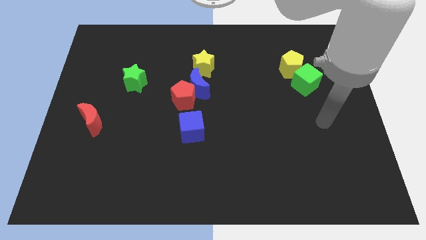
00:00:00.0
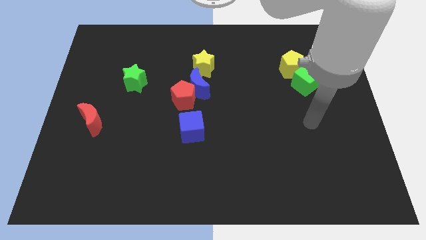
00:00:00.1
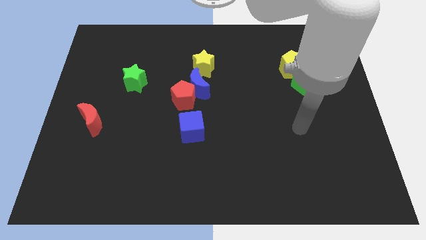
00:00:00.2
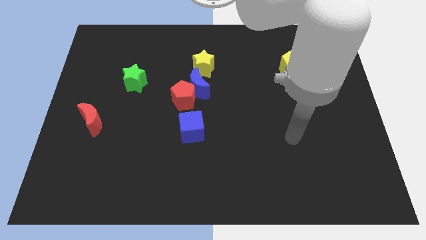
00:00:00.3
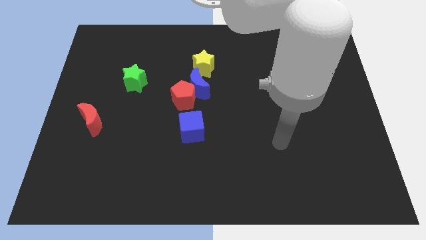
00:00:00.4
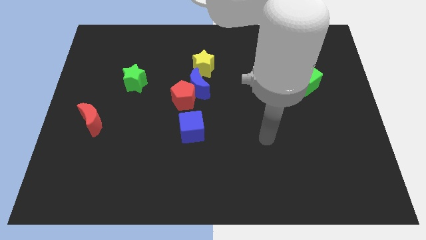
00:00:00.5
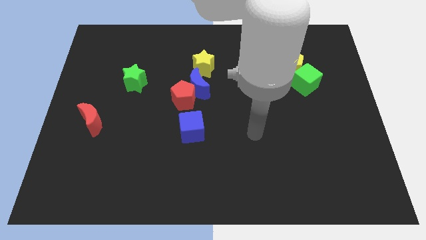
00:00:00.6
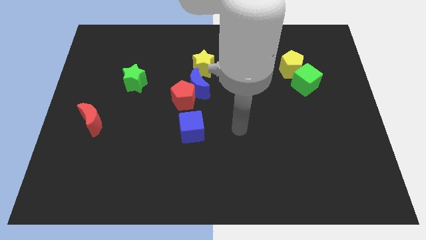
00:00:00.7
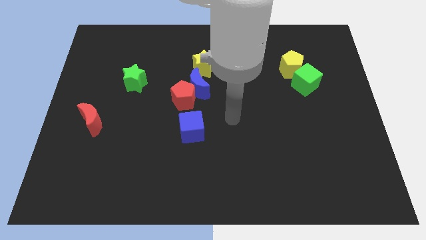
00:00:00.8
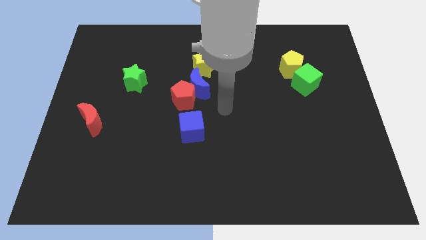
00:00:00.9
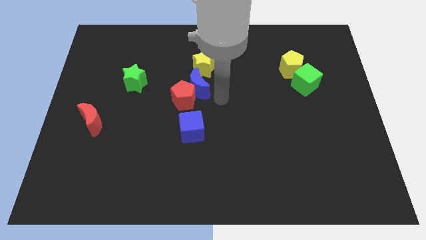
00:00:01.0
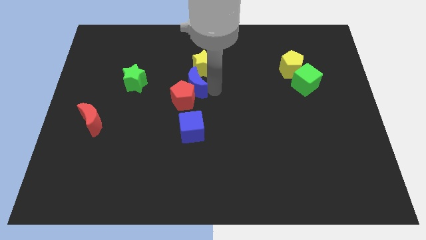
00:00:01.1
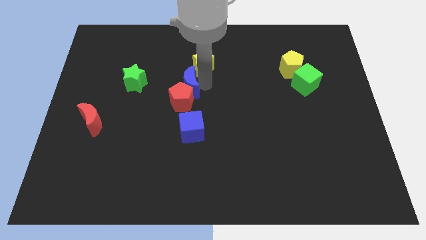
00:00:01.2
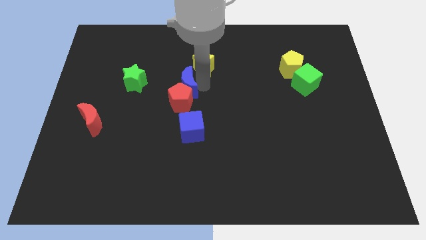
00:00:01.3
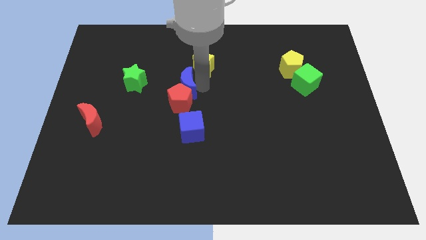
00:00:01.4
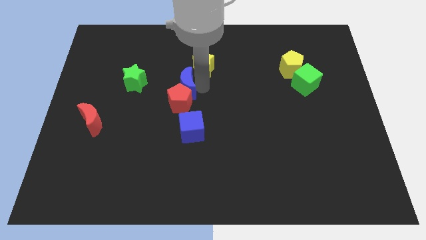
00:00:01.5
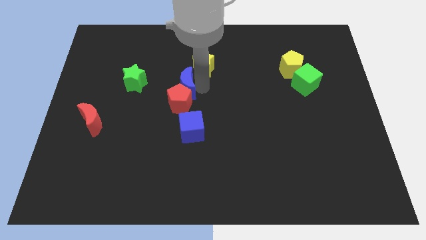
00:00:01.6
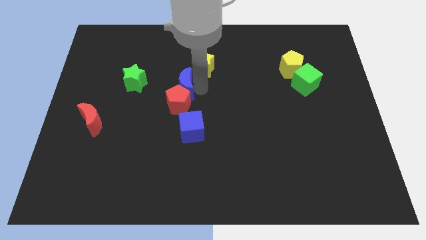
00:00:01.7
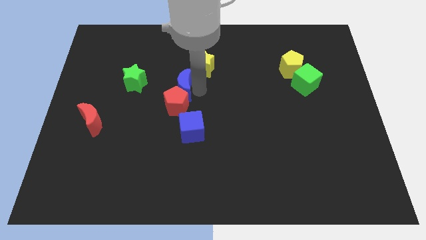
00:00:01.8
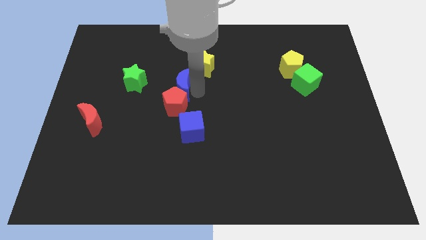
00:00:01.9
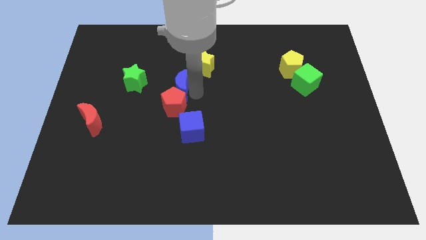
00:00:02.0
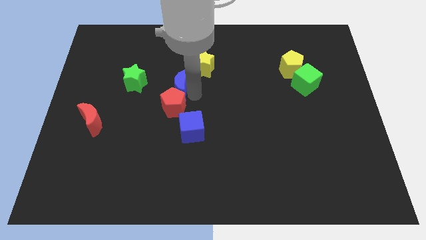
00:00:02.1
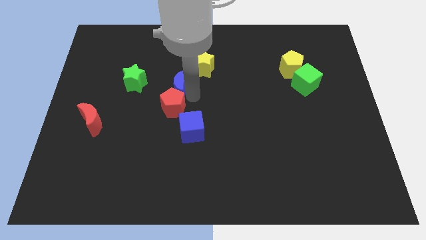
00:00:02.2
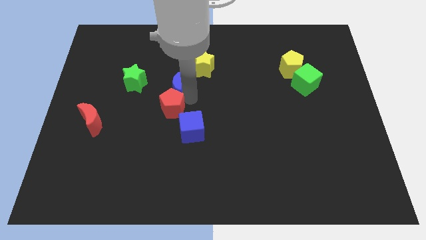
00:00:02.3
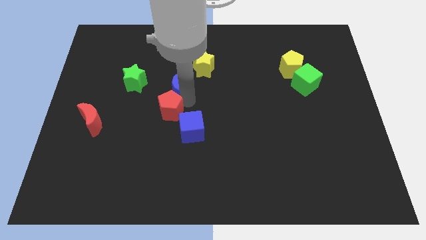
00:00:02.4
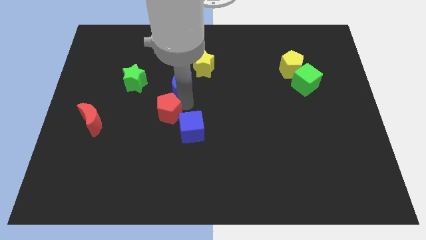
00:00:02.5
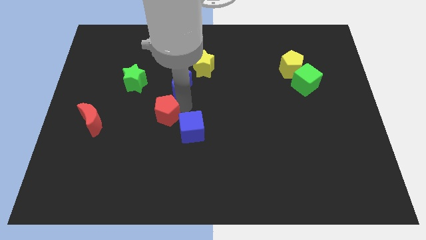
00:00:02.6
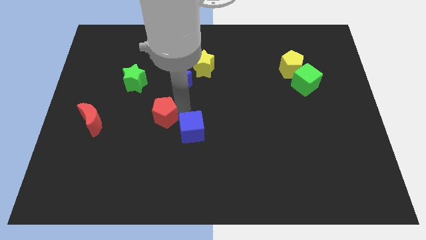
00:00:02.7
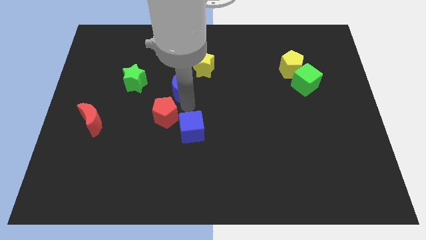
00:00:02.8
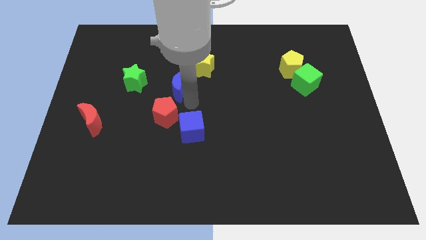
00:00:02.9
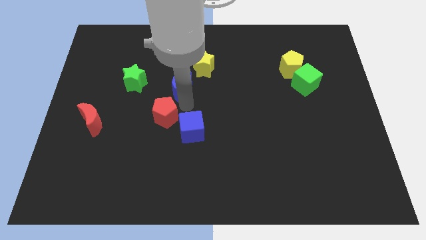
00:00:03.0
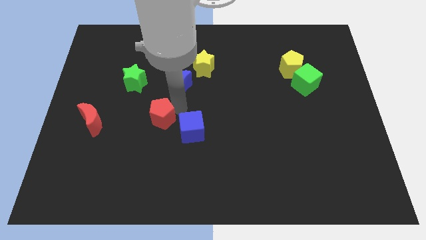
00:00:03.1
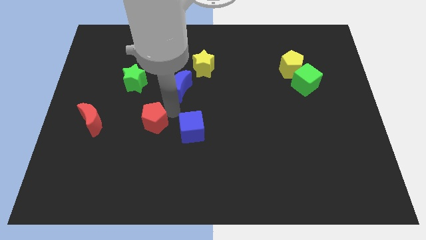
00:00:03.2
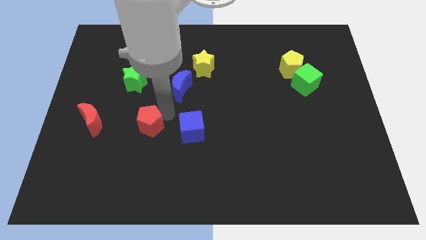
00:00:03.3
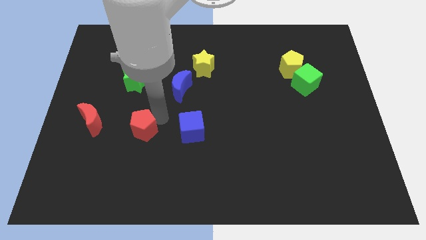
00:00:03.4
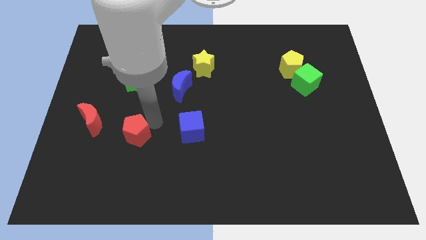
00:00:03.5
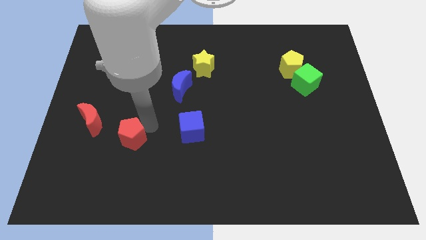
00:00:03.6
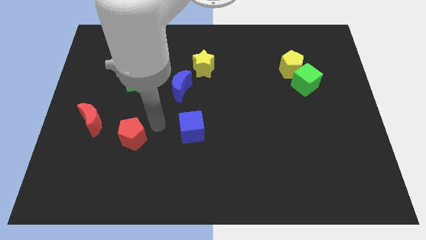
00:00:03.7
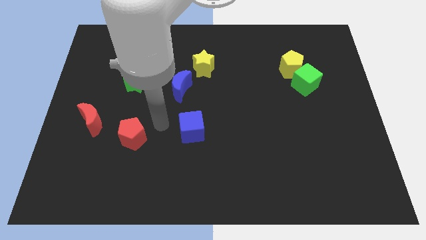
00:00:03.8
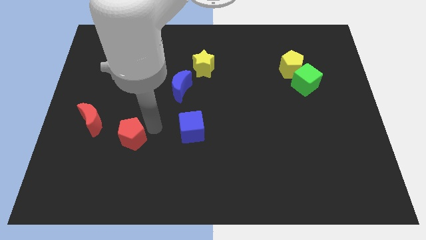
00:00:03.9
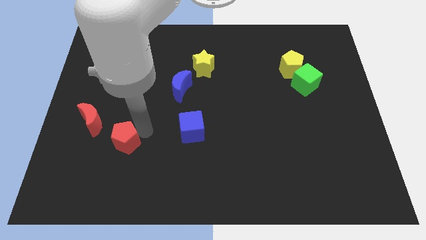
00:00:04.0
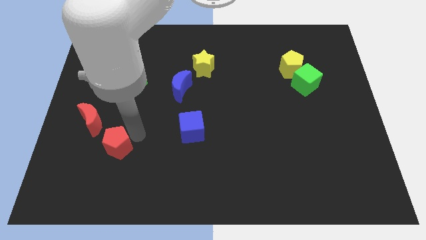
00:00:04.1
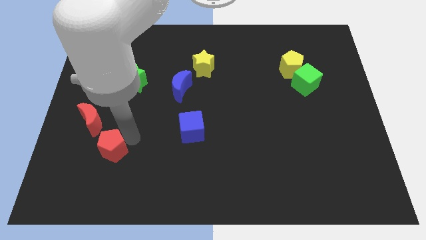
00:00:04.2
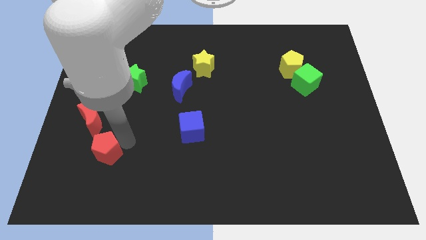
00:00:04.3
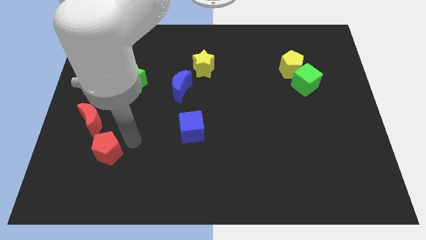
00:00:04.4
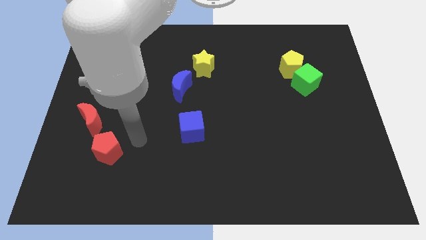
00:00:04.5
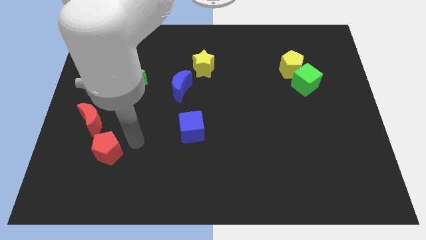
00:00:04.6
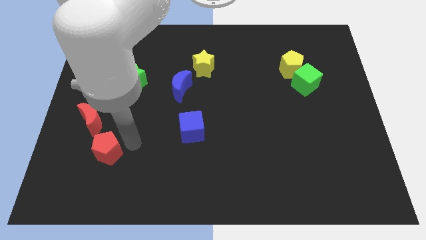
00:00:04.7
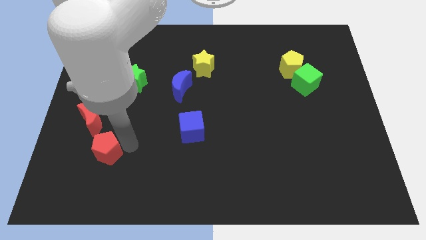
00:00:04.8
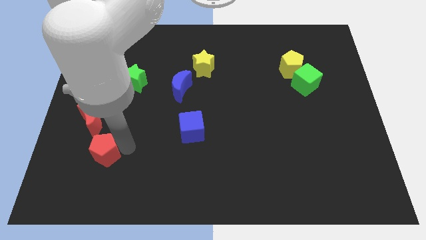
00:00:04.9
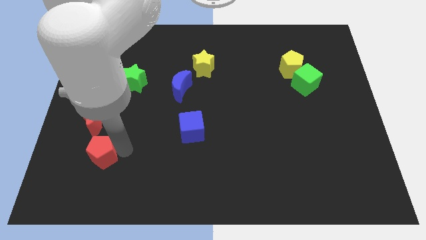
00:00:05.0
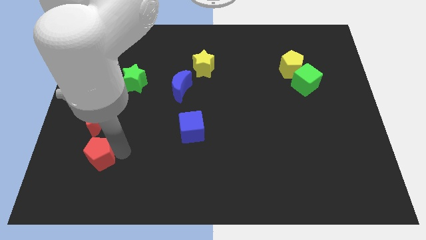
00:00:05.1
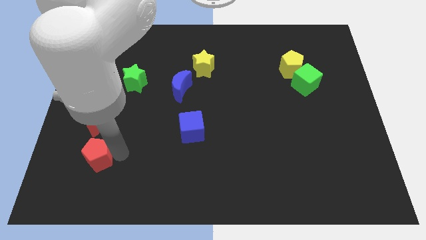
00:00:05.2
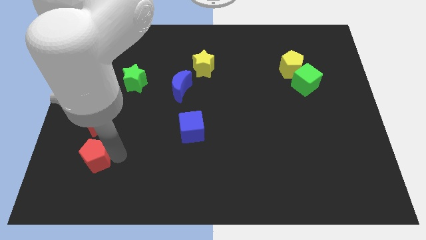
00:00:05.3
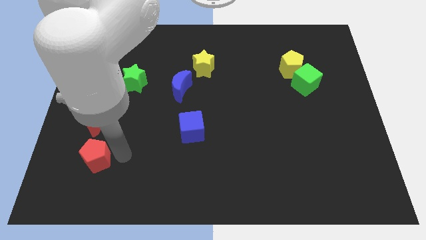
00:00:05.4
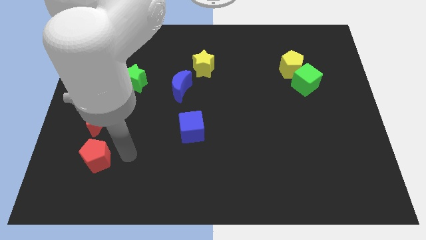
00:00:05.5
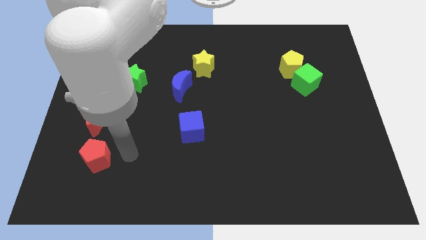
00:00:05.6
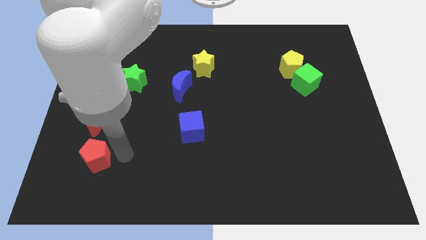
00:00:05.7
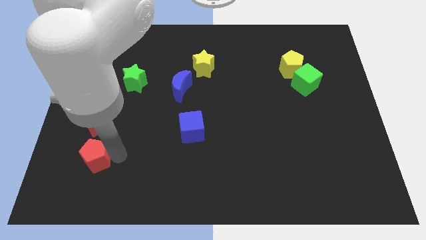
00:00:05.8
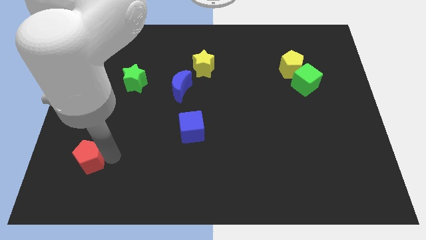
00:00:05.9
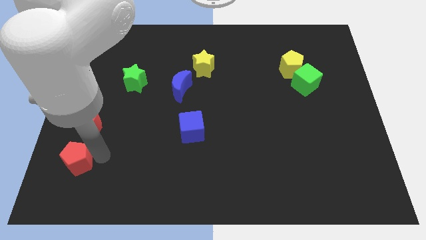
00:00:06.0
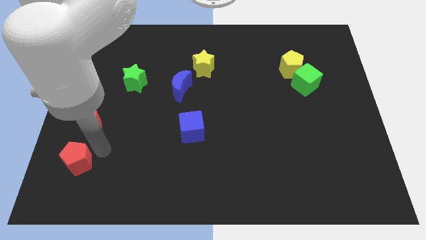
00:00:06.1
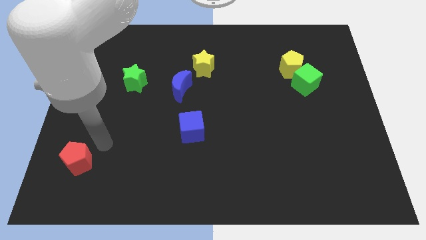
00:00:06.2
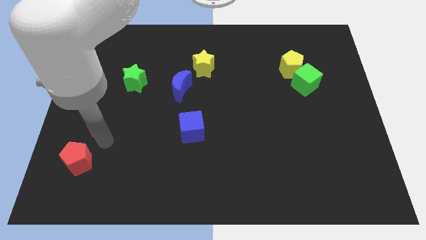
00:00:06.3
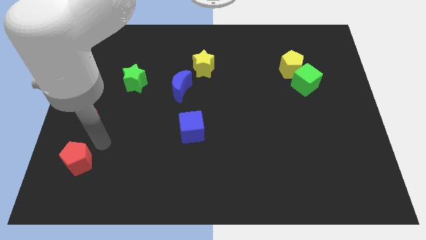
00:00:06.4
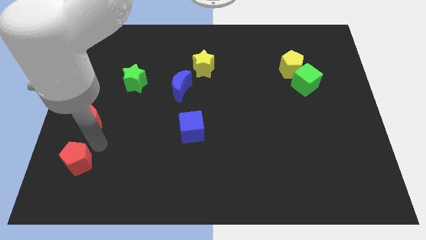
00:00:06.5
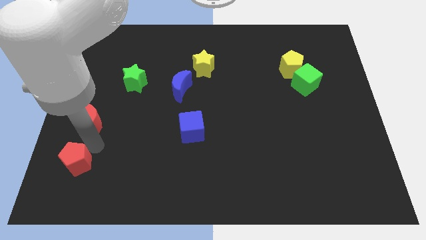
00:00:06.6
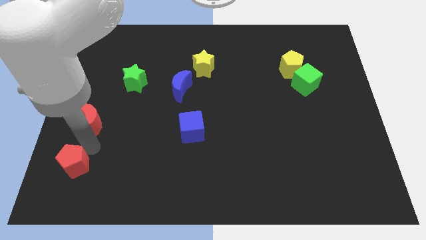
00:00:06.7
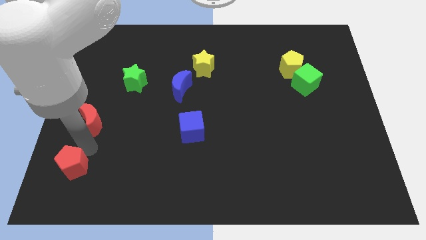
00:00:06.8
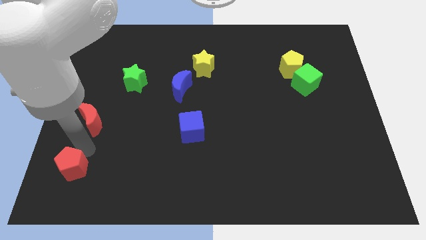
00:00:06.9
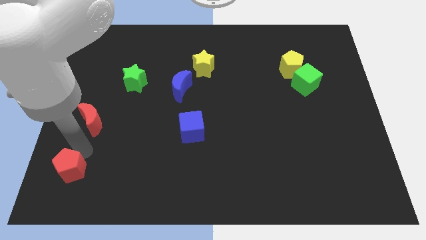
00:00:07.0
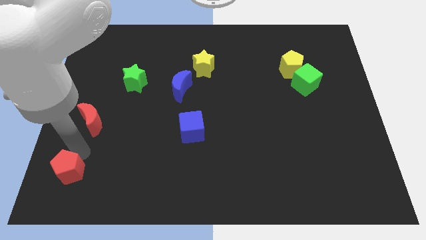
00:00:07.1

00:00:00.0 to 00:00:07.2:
move the red pentagon to the bottom left corner
